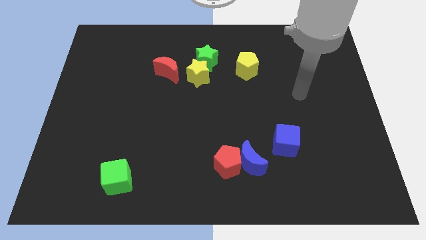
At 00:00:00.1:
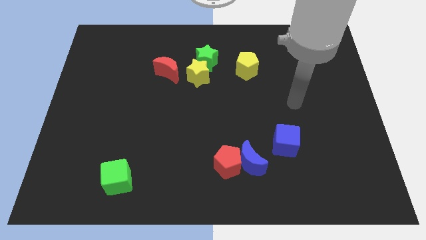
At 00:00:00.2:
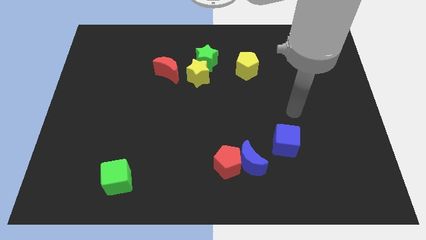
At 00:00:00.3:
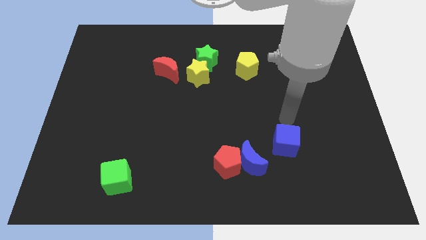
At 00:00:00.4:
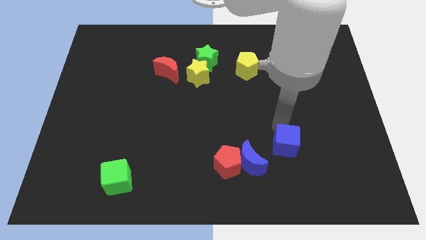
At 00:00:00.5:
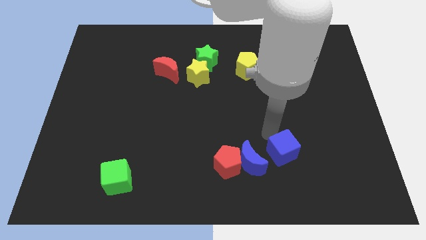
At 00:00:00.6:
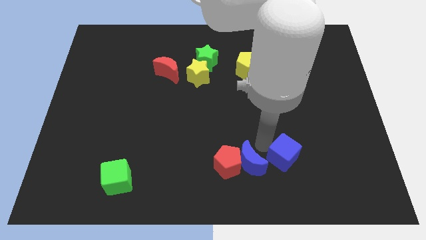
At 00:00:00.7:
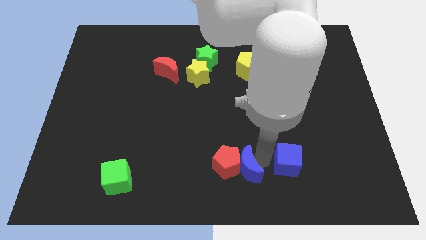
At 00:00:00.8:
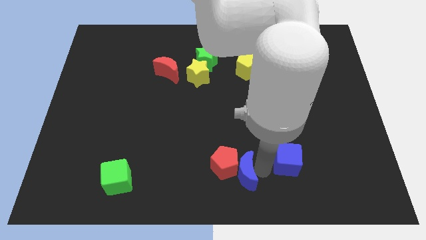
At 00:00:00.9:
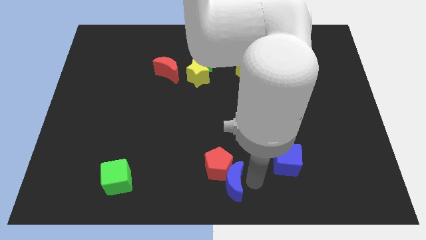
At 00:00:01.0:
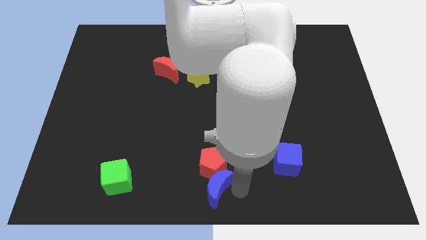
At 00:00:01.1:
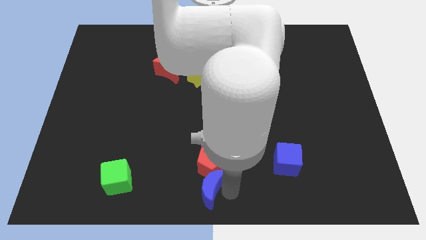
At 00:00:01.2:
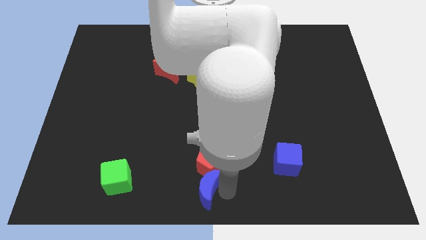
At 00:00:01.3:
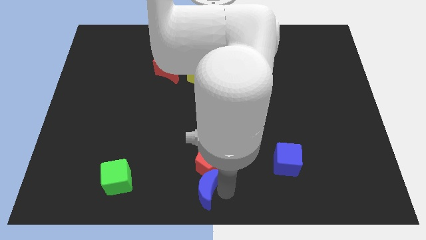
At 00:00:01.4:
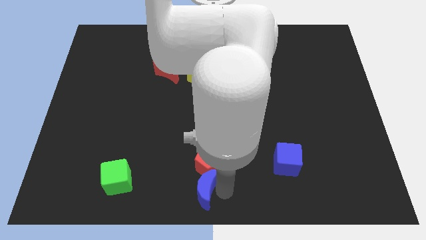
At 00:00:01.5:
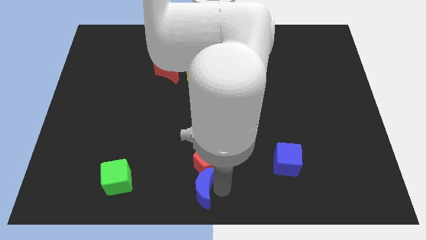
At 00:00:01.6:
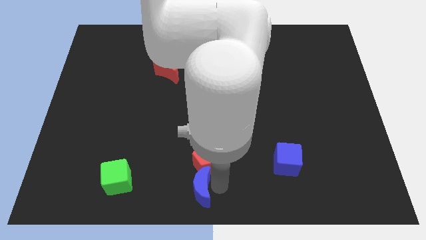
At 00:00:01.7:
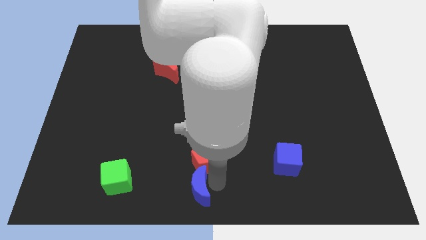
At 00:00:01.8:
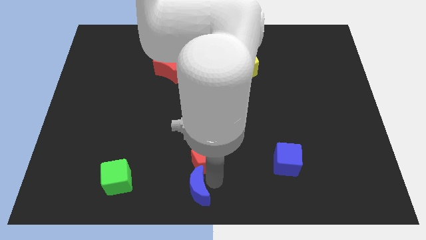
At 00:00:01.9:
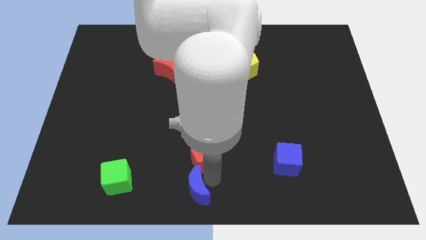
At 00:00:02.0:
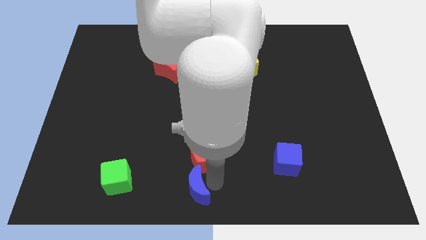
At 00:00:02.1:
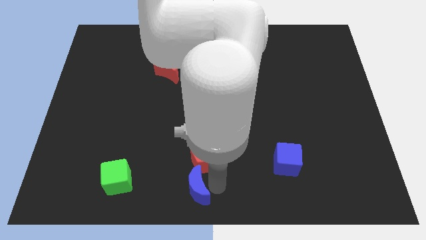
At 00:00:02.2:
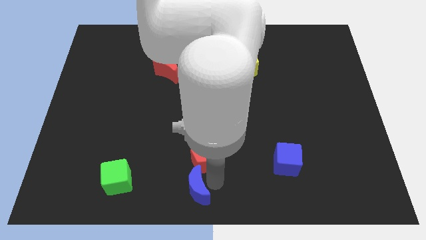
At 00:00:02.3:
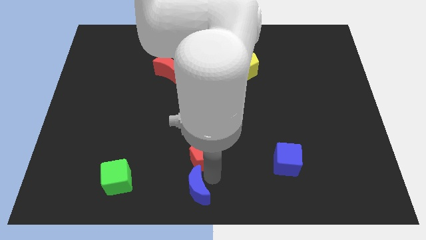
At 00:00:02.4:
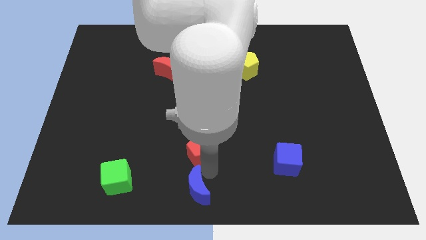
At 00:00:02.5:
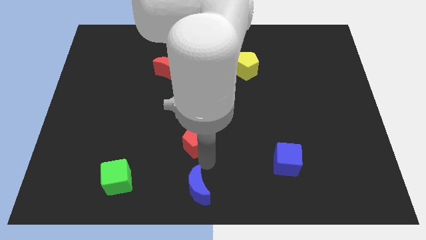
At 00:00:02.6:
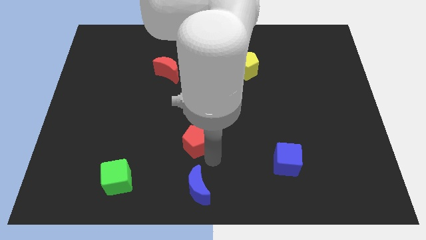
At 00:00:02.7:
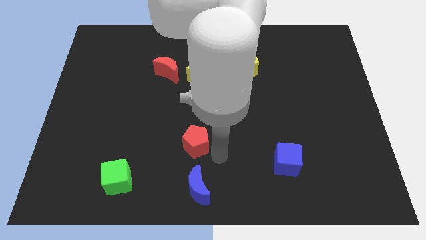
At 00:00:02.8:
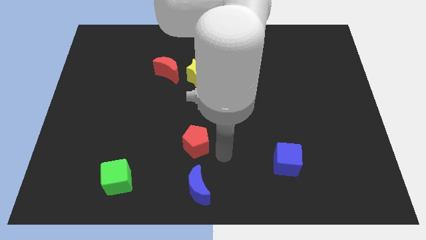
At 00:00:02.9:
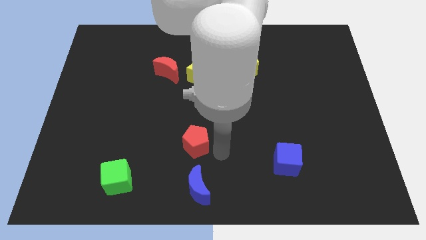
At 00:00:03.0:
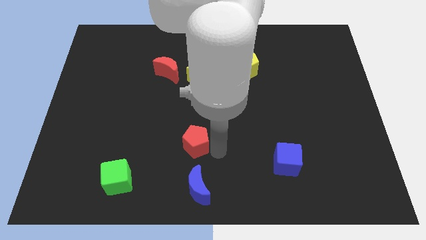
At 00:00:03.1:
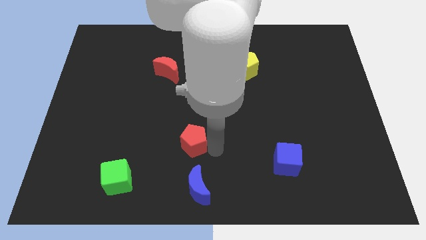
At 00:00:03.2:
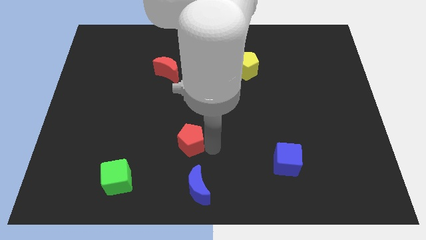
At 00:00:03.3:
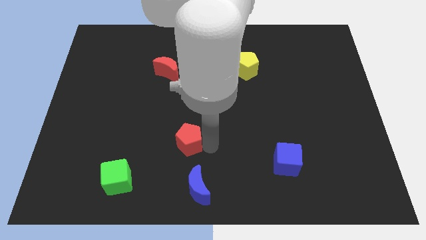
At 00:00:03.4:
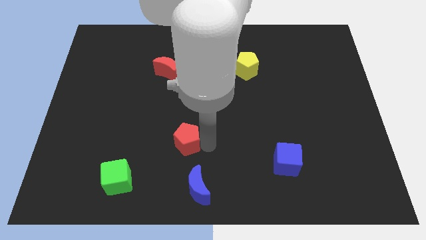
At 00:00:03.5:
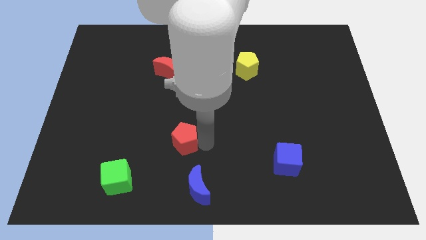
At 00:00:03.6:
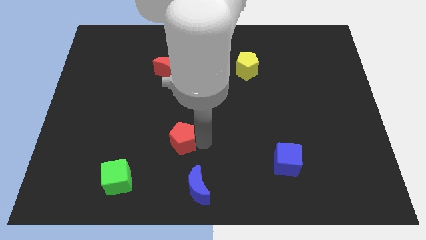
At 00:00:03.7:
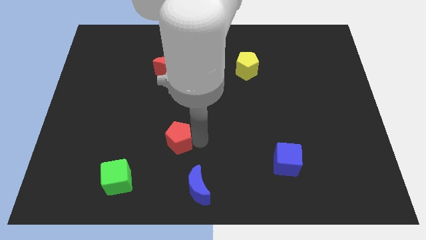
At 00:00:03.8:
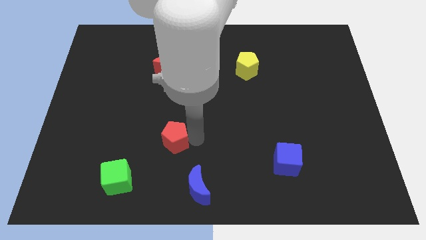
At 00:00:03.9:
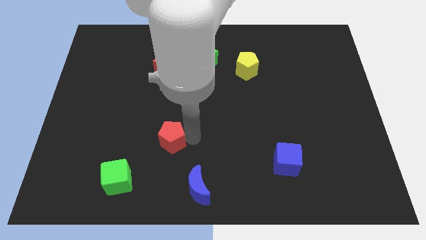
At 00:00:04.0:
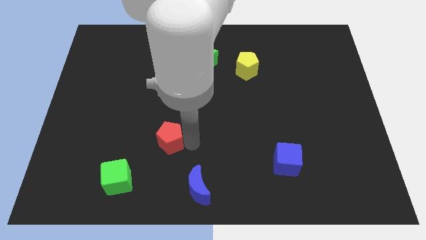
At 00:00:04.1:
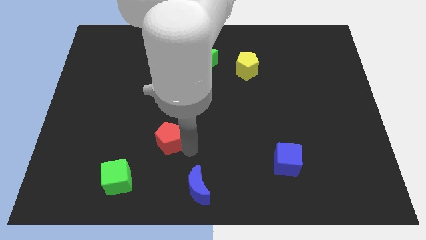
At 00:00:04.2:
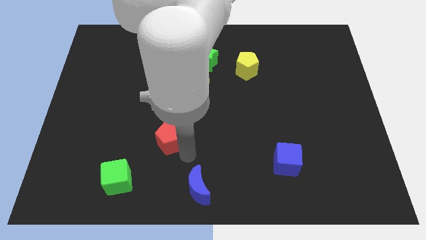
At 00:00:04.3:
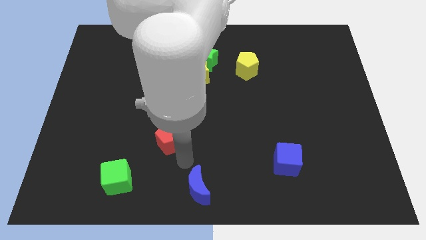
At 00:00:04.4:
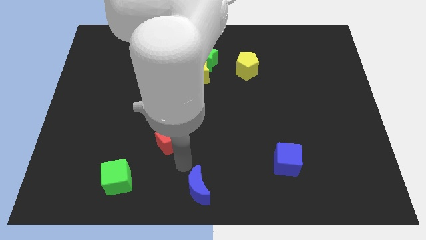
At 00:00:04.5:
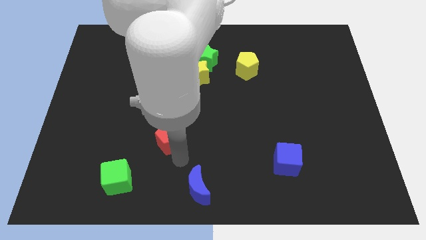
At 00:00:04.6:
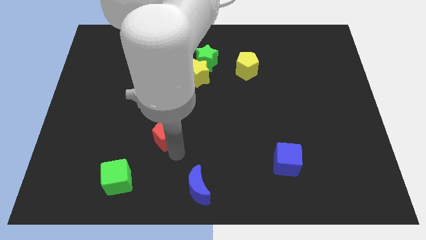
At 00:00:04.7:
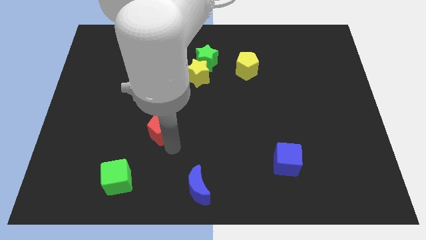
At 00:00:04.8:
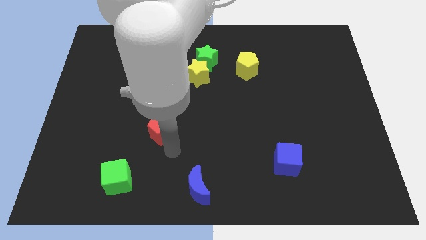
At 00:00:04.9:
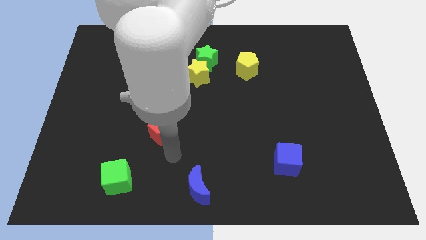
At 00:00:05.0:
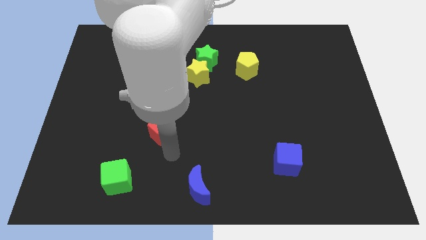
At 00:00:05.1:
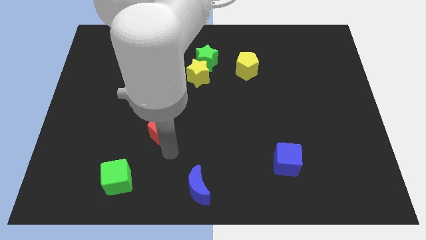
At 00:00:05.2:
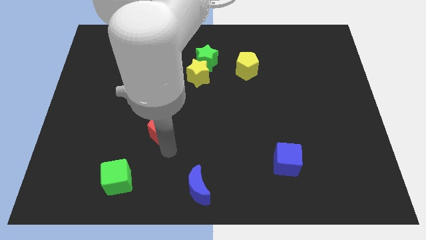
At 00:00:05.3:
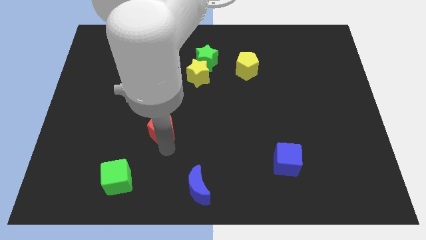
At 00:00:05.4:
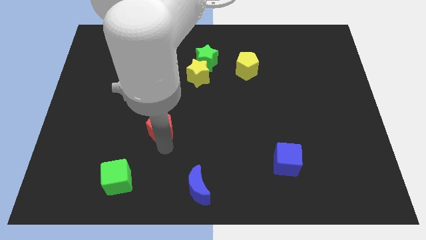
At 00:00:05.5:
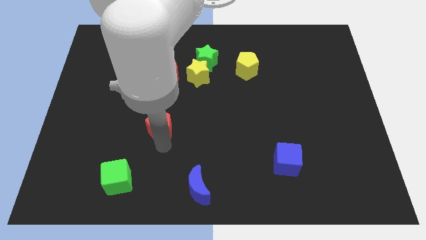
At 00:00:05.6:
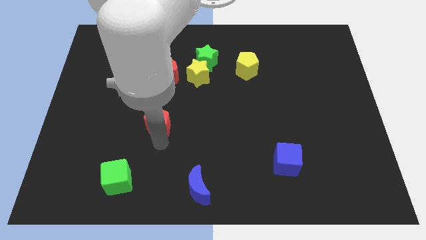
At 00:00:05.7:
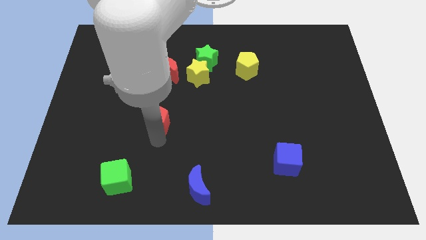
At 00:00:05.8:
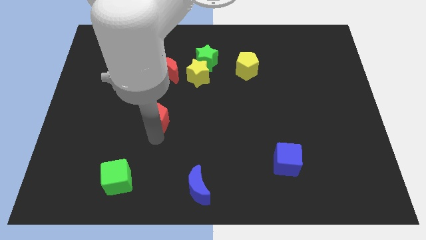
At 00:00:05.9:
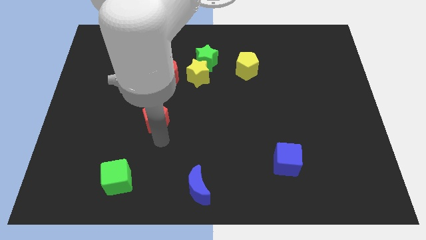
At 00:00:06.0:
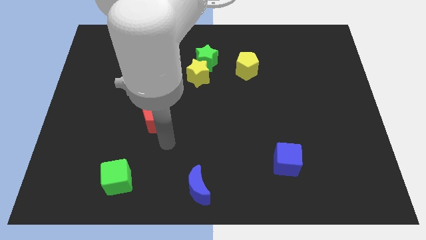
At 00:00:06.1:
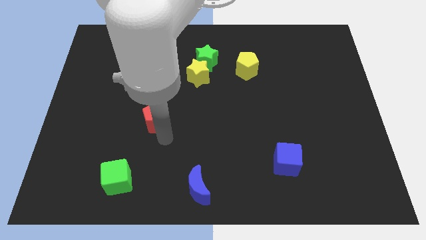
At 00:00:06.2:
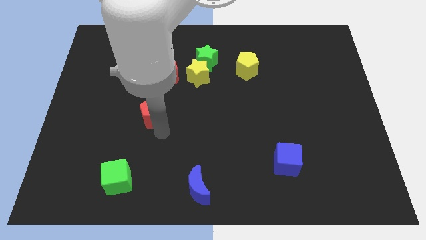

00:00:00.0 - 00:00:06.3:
push the red pentagon diagonally upwards and left

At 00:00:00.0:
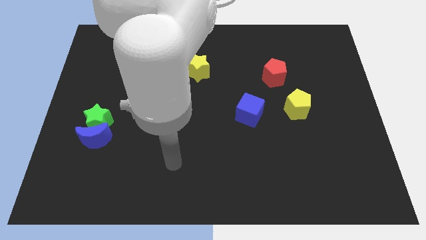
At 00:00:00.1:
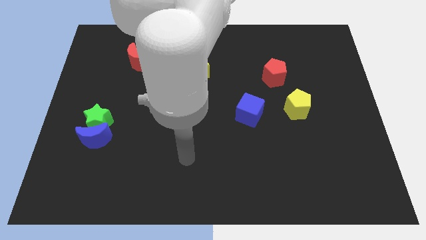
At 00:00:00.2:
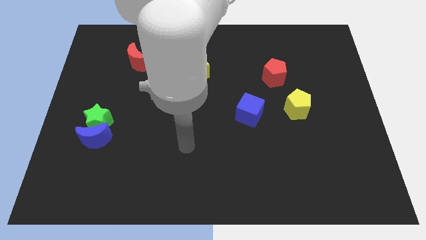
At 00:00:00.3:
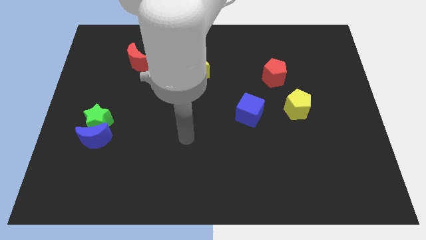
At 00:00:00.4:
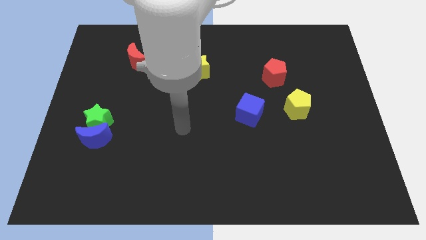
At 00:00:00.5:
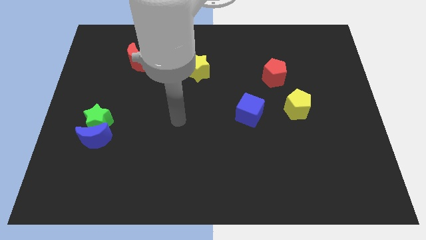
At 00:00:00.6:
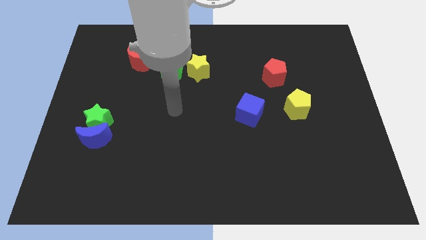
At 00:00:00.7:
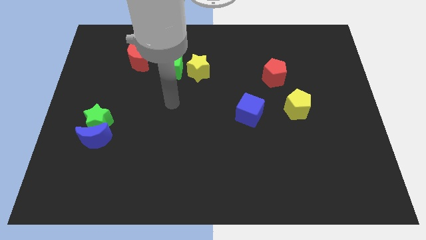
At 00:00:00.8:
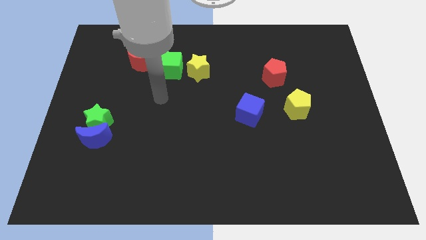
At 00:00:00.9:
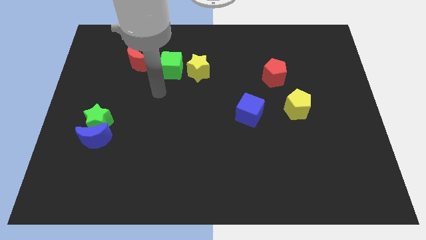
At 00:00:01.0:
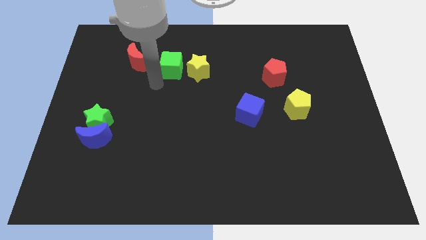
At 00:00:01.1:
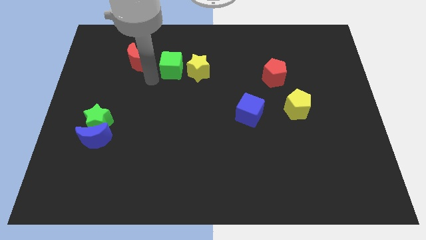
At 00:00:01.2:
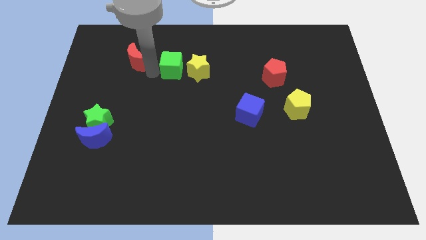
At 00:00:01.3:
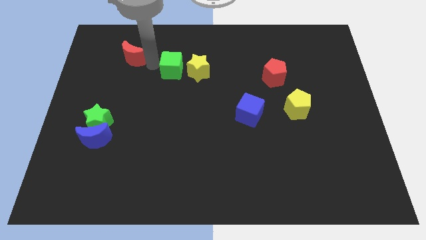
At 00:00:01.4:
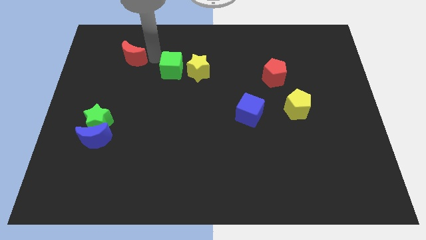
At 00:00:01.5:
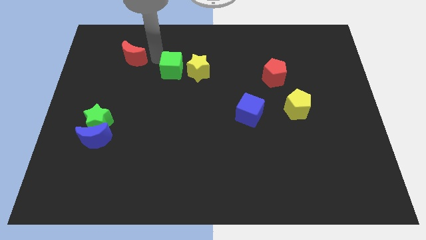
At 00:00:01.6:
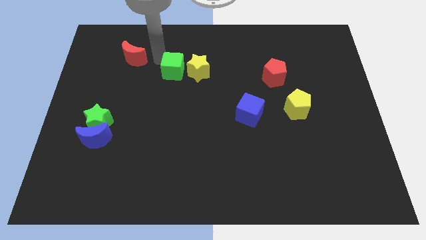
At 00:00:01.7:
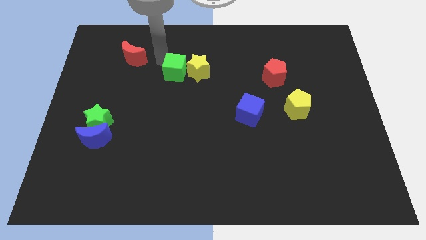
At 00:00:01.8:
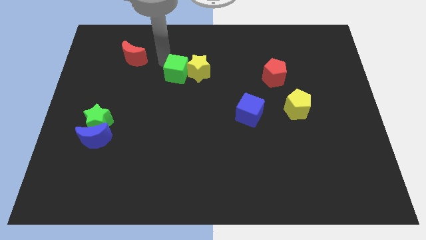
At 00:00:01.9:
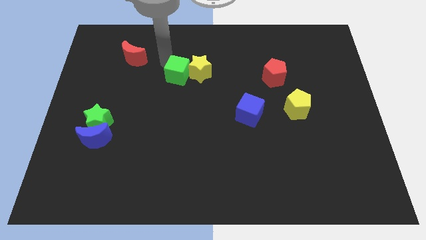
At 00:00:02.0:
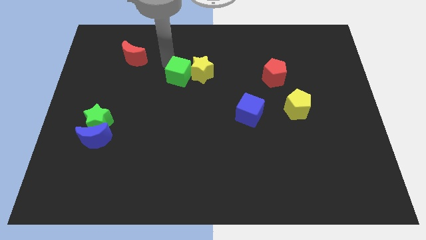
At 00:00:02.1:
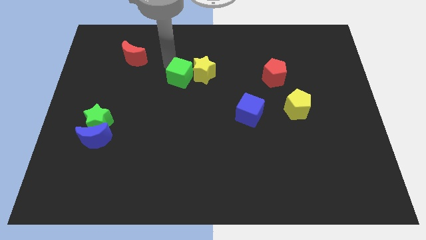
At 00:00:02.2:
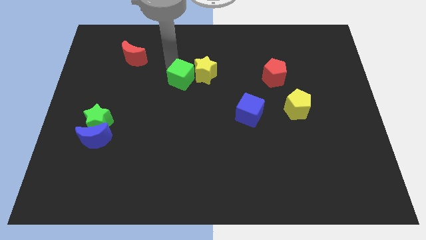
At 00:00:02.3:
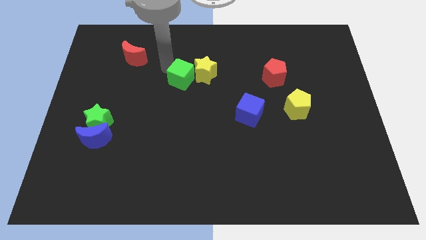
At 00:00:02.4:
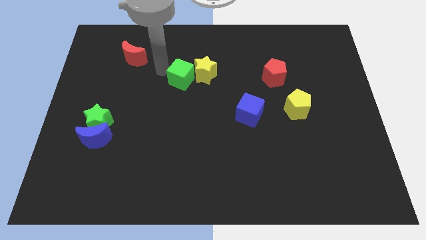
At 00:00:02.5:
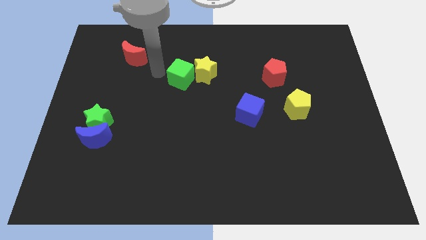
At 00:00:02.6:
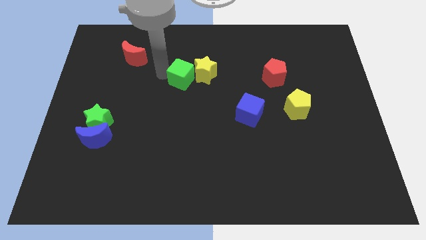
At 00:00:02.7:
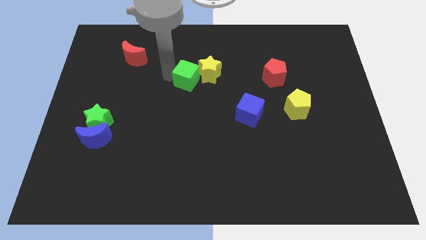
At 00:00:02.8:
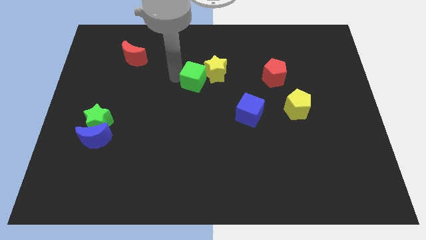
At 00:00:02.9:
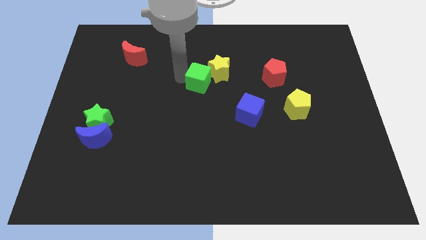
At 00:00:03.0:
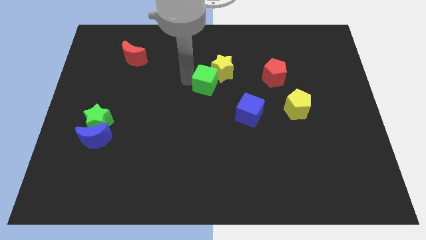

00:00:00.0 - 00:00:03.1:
slightly push the green cube right
